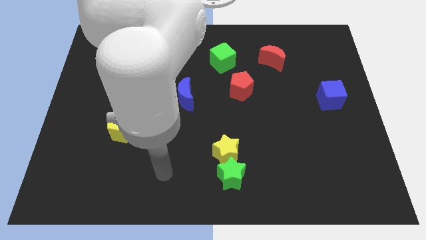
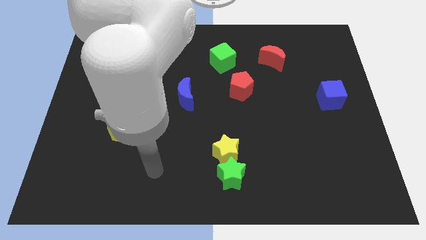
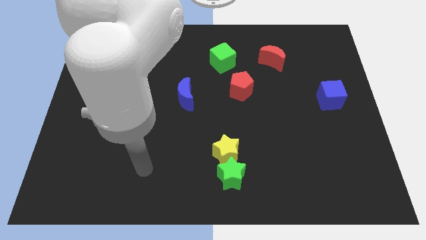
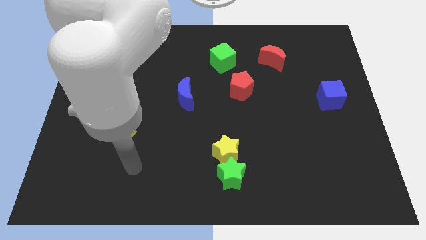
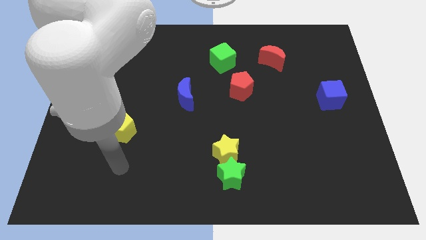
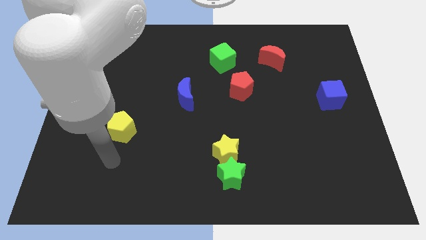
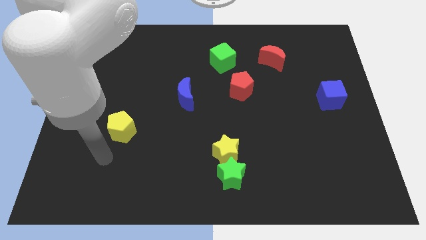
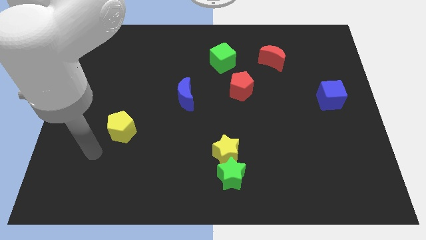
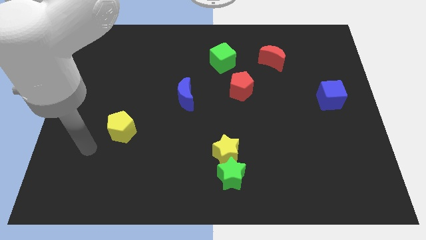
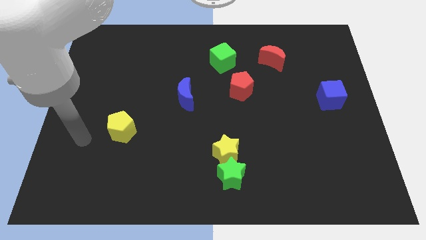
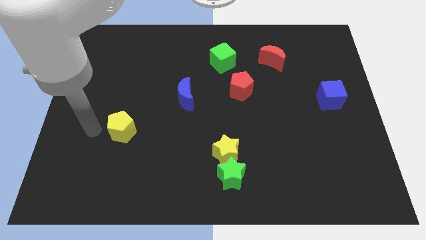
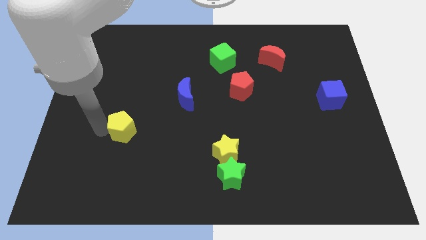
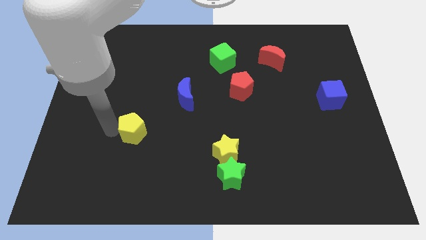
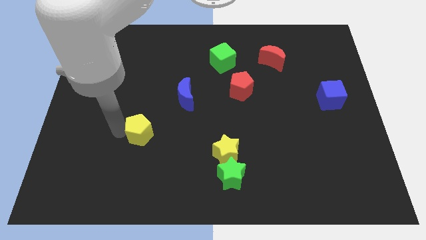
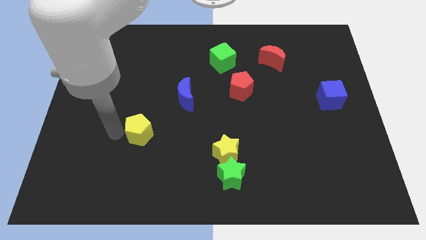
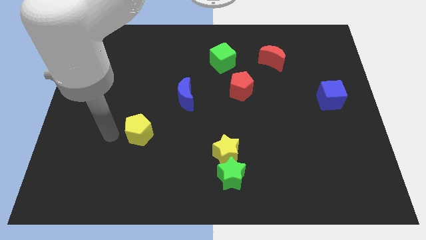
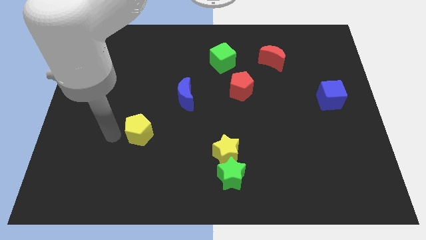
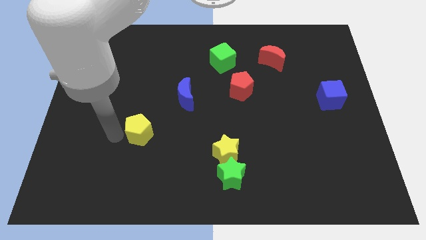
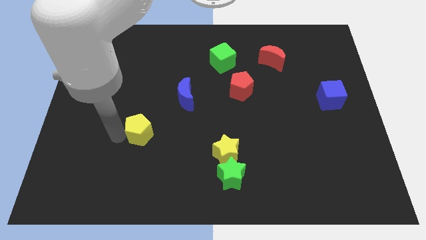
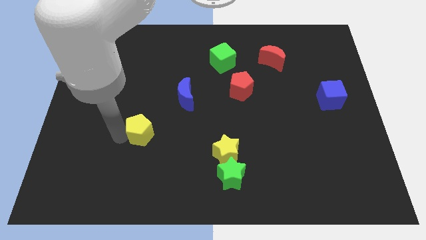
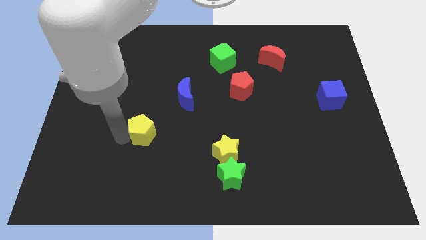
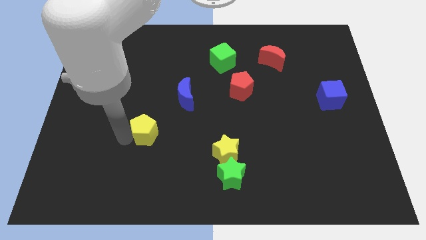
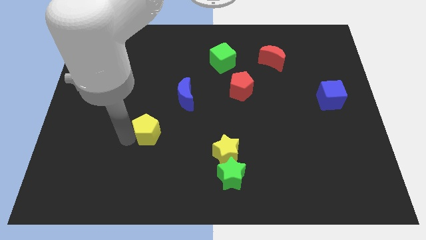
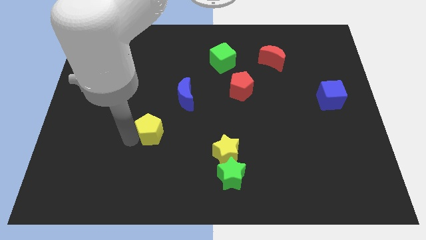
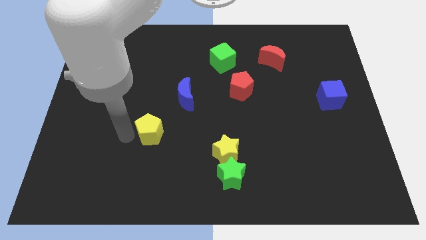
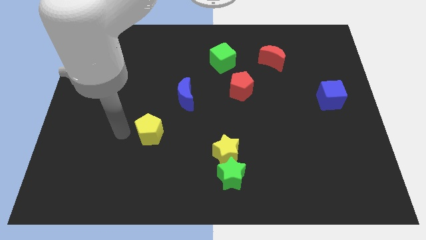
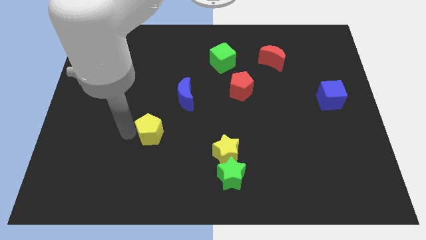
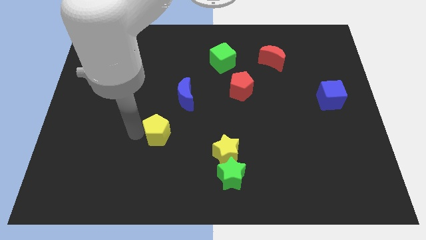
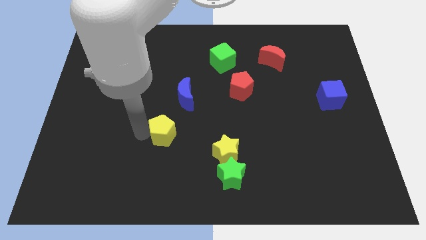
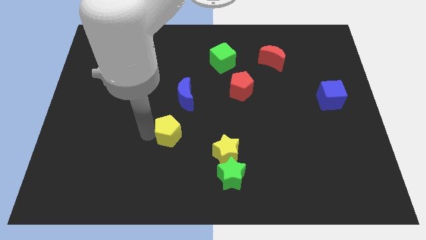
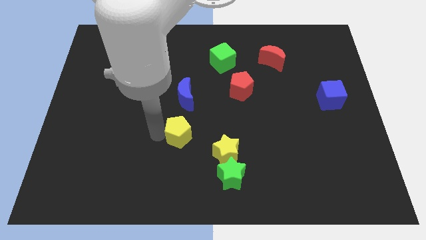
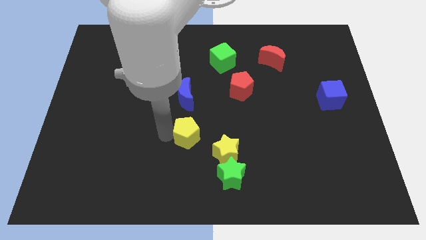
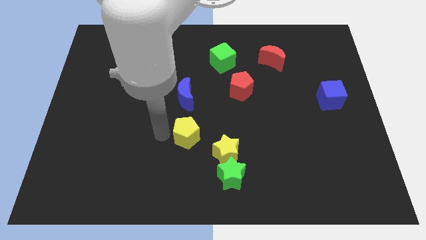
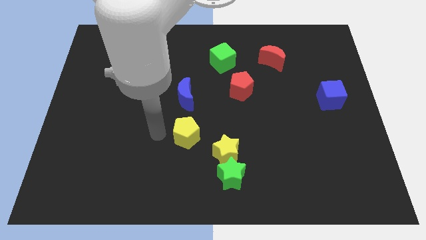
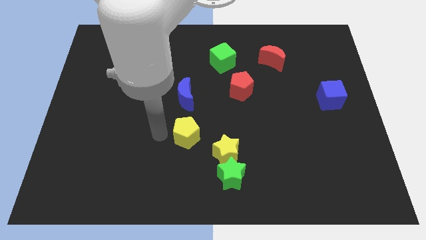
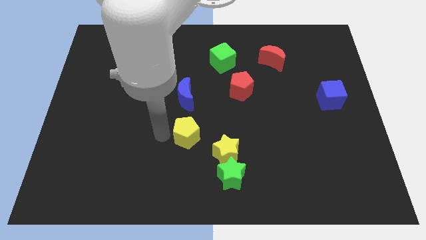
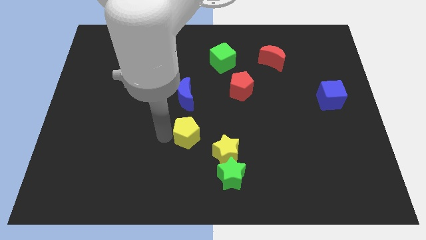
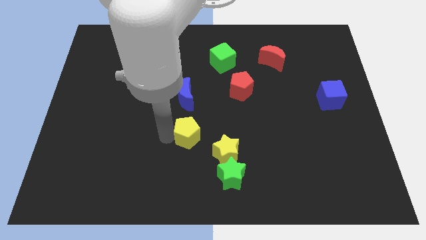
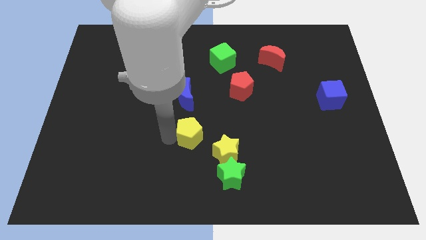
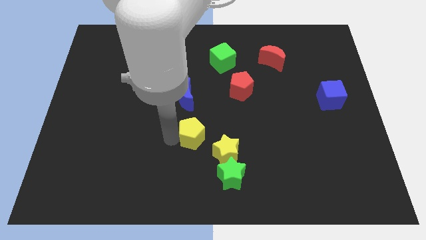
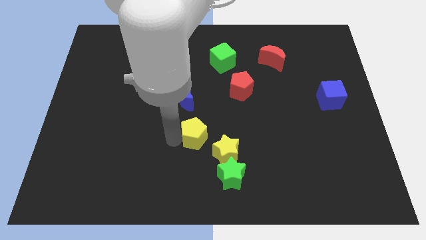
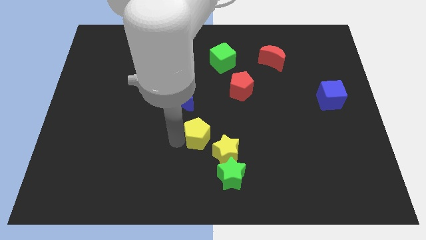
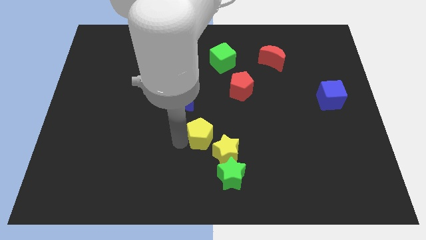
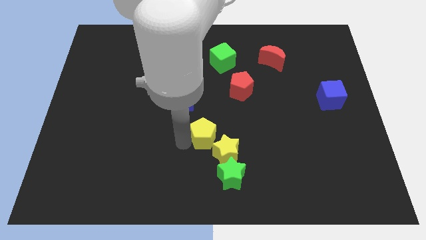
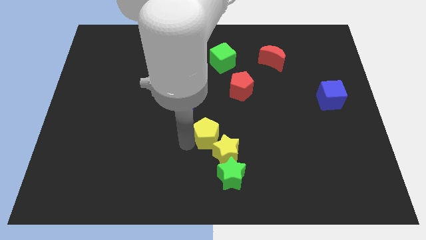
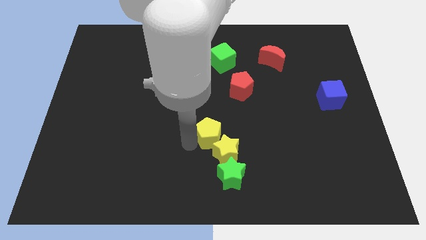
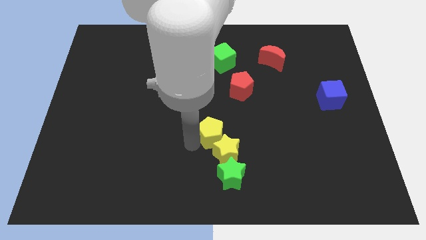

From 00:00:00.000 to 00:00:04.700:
slide the yellow pentagon to the right

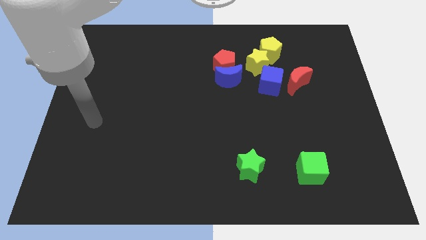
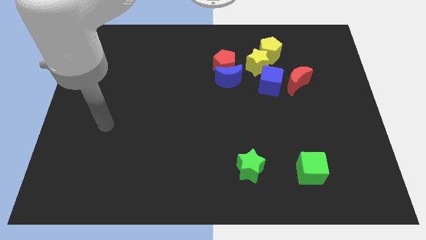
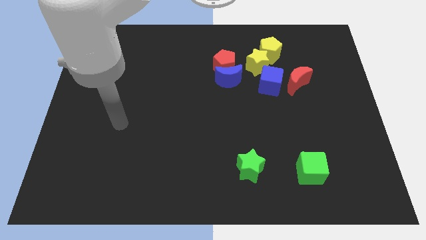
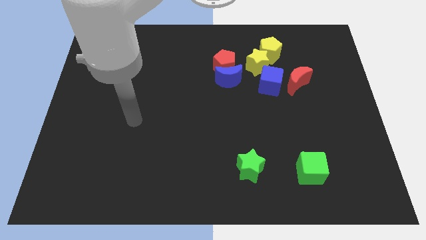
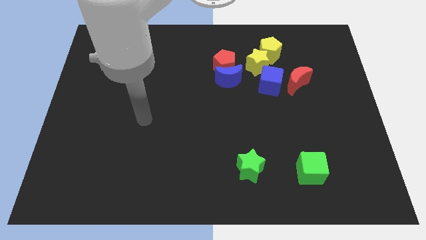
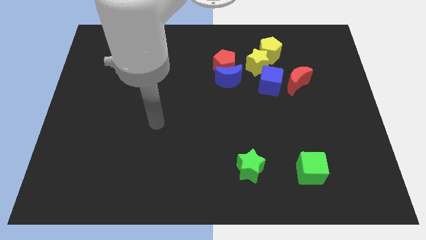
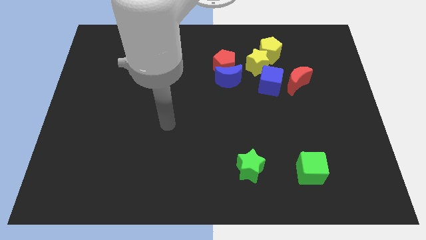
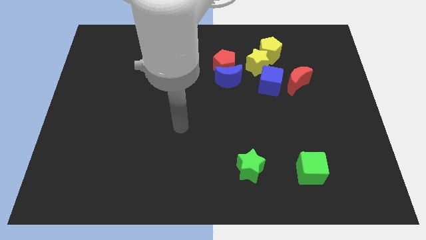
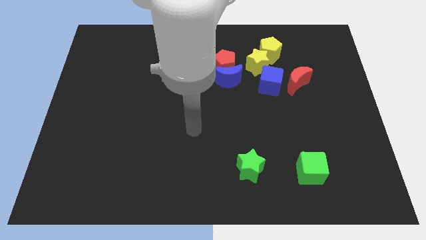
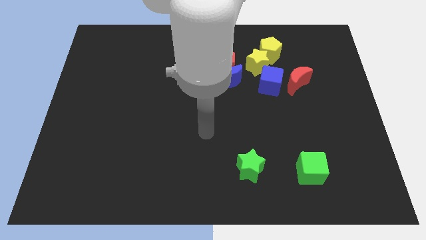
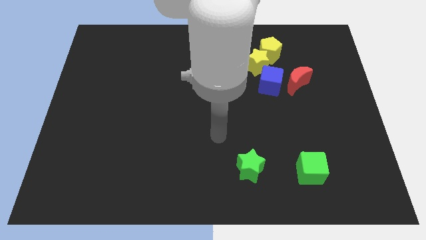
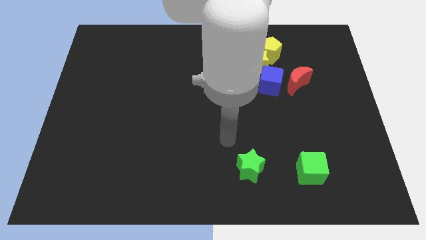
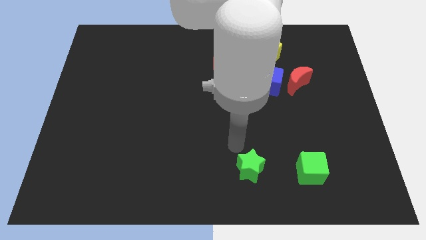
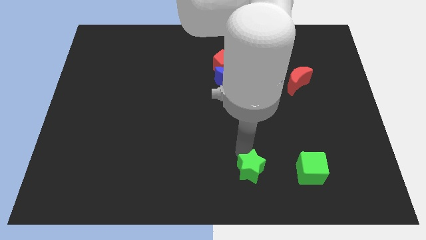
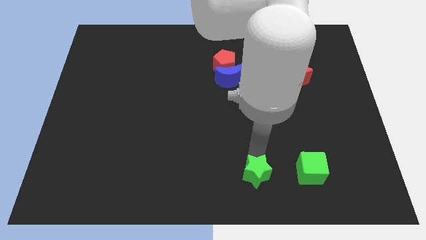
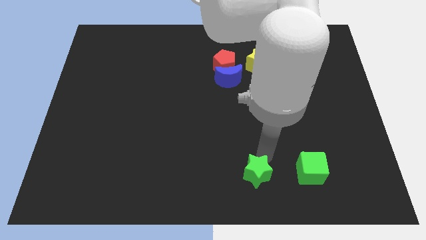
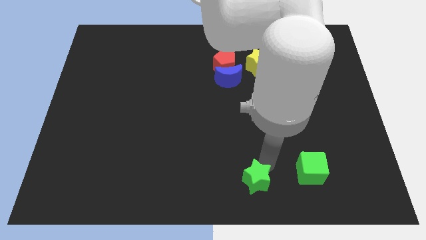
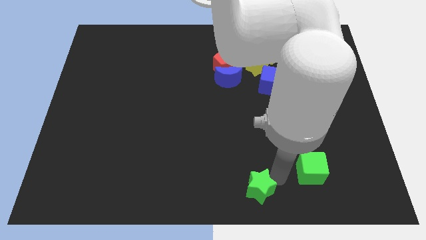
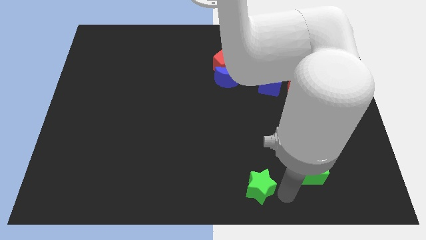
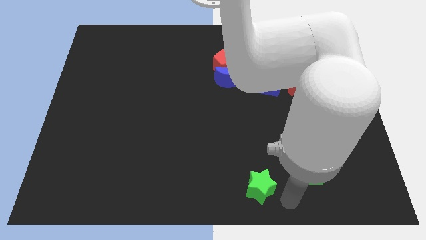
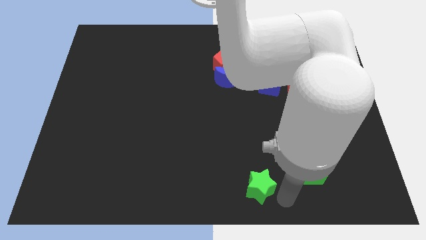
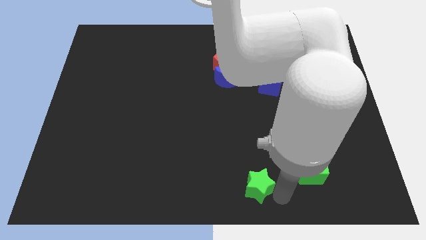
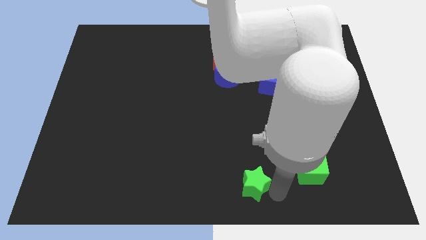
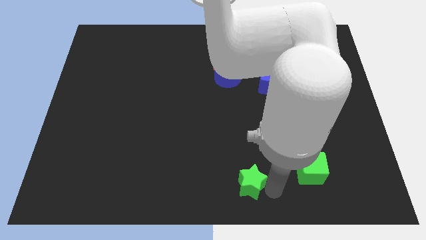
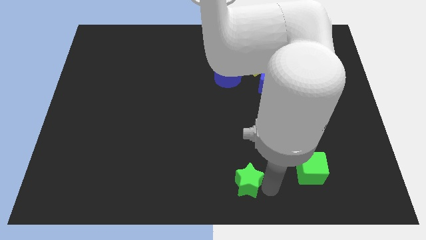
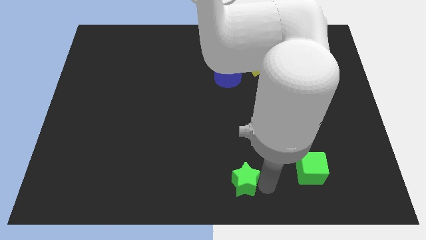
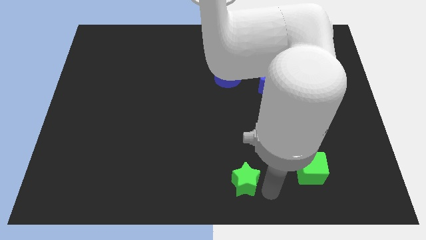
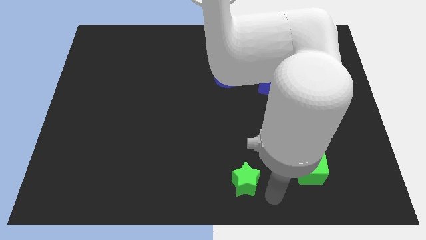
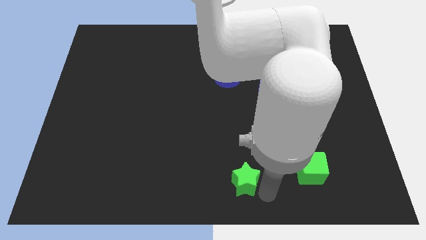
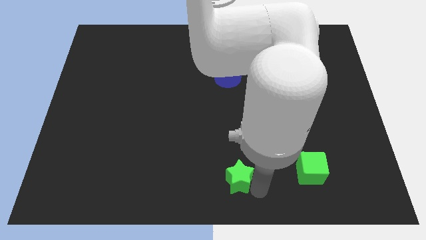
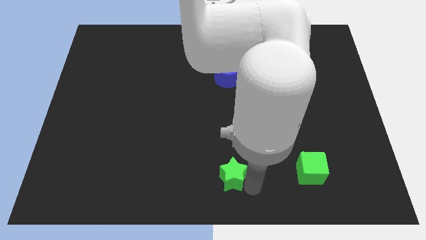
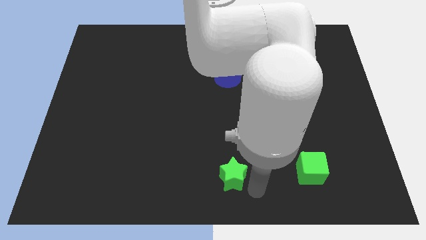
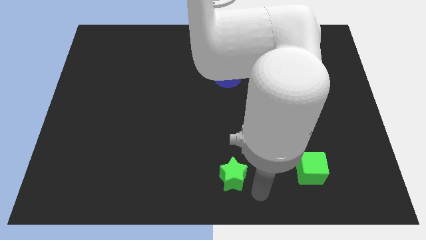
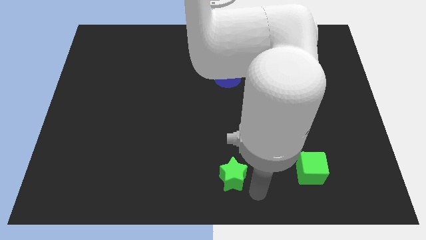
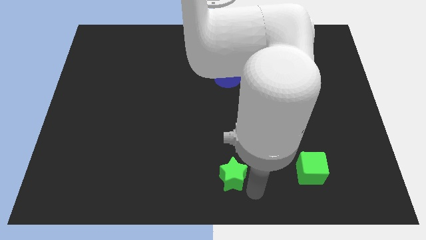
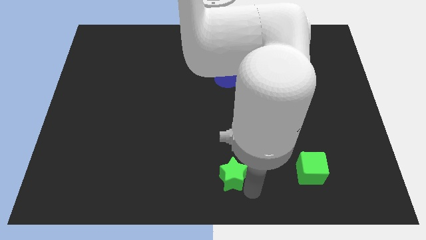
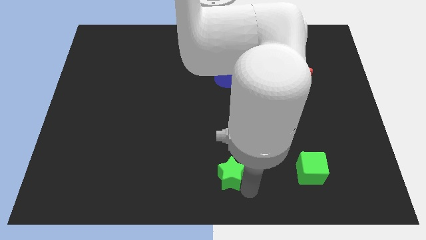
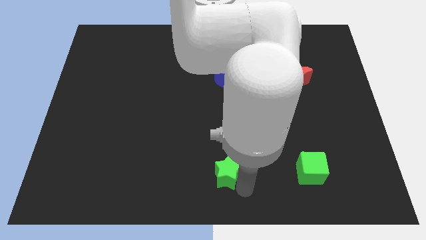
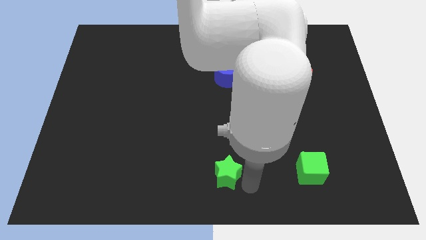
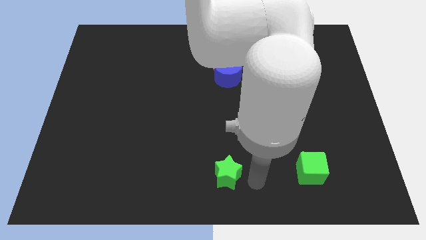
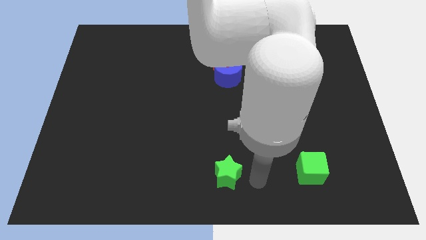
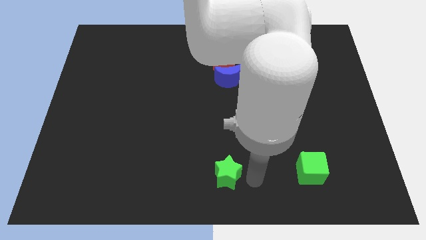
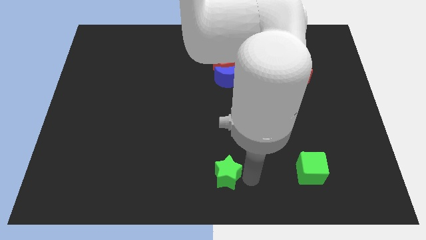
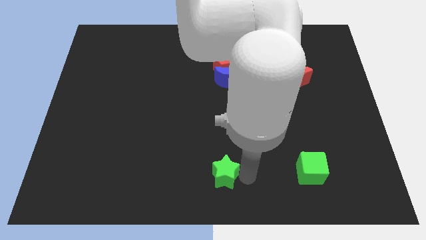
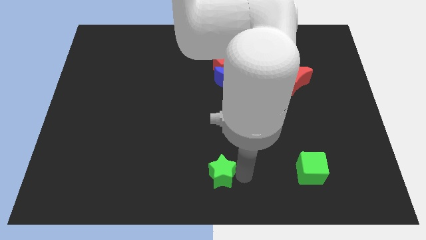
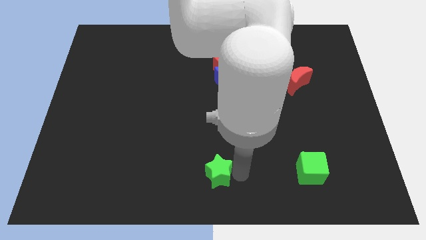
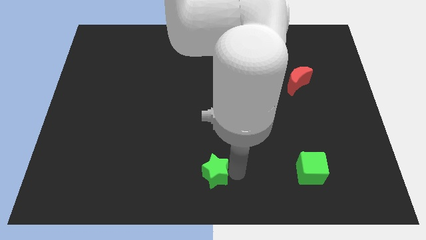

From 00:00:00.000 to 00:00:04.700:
move the green star slightly left
